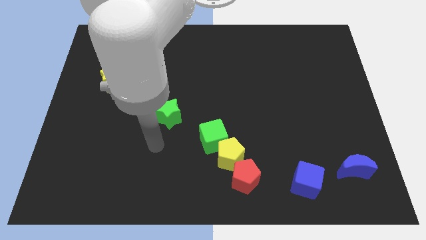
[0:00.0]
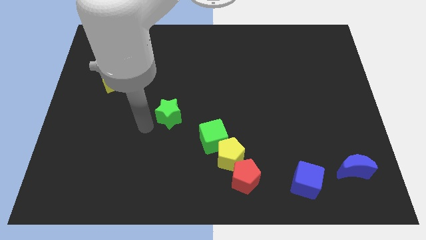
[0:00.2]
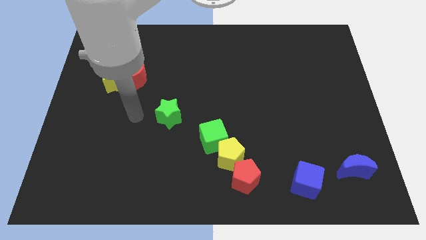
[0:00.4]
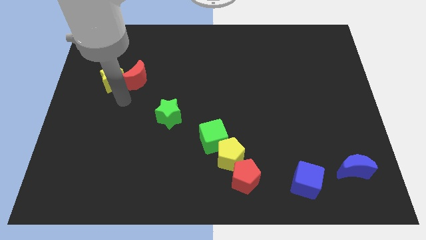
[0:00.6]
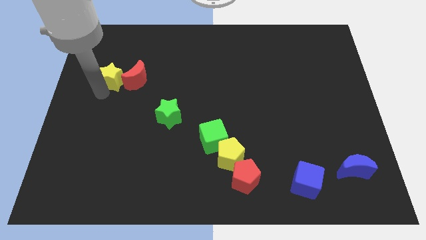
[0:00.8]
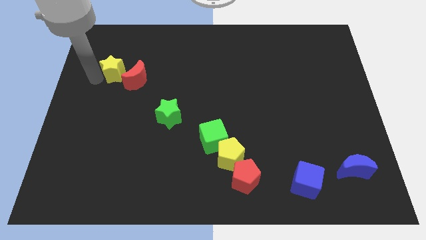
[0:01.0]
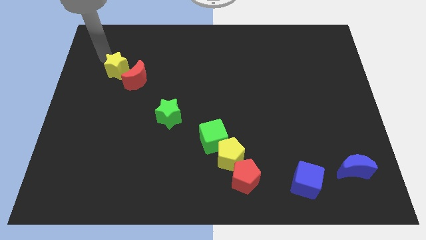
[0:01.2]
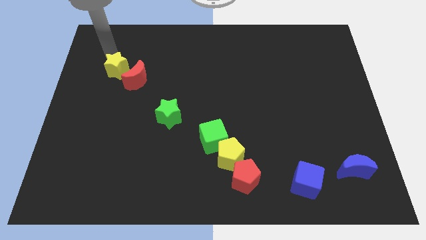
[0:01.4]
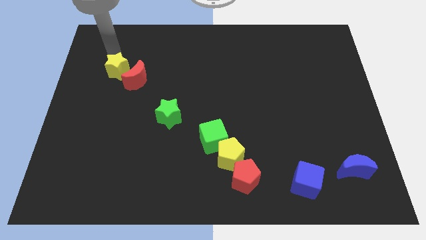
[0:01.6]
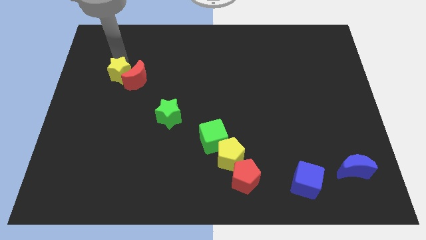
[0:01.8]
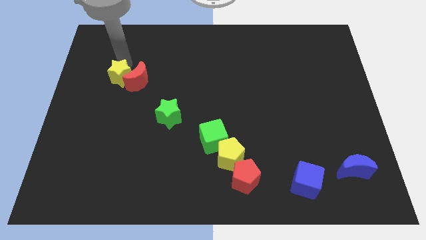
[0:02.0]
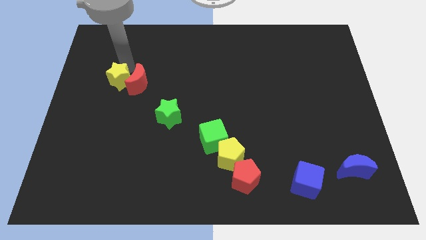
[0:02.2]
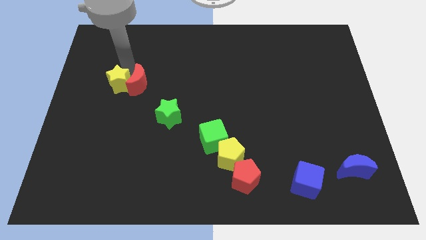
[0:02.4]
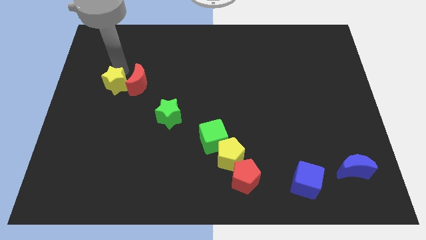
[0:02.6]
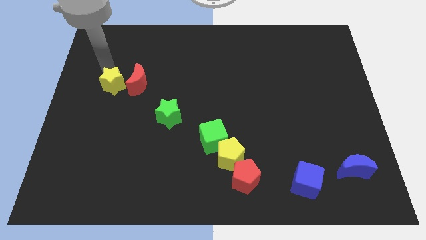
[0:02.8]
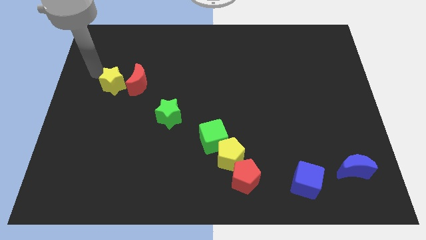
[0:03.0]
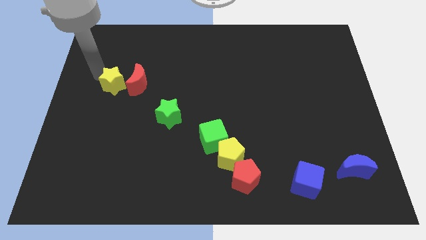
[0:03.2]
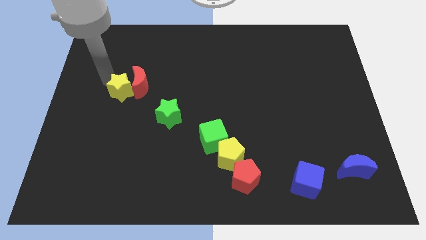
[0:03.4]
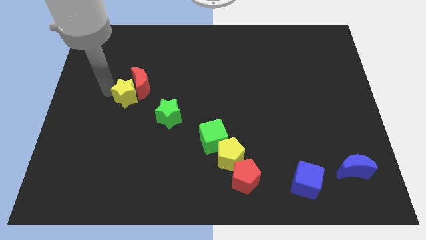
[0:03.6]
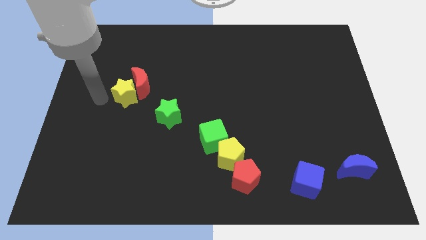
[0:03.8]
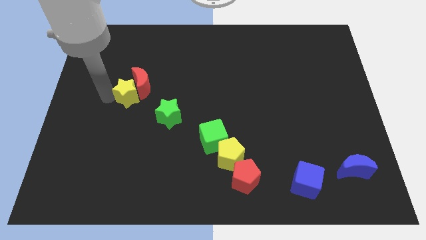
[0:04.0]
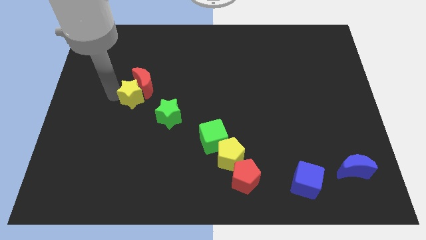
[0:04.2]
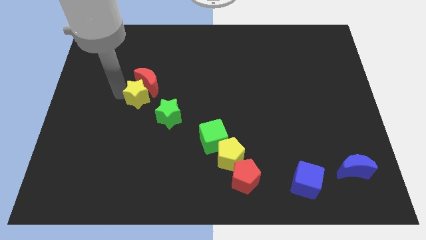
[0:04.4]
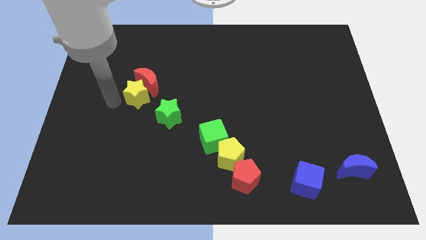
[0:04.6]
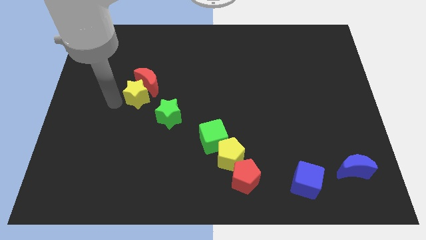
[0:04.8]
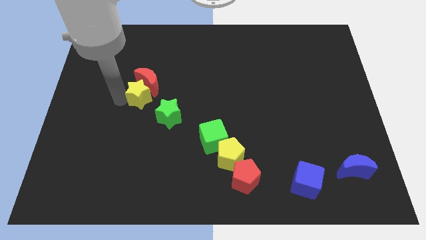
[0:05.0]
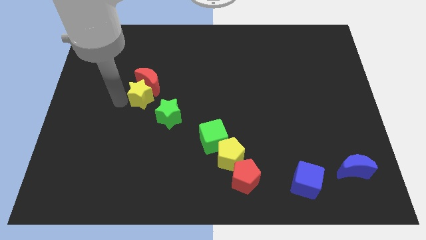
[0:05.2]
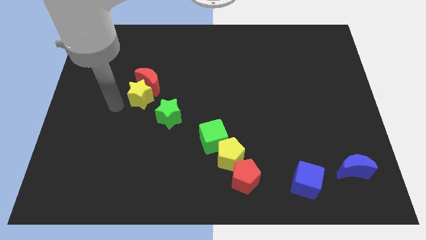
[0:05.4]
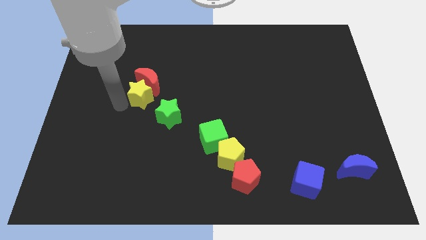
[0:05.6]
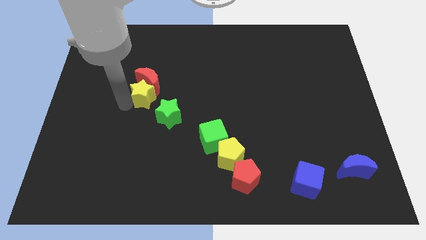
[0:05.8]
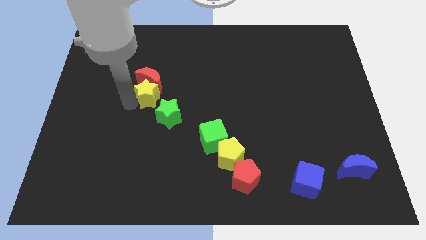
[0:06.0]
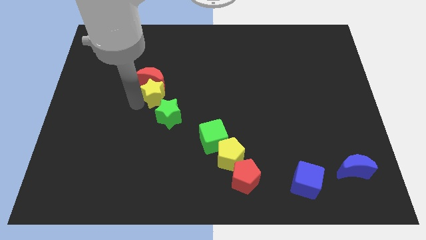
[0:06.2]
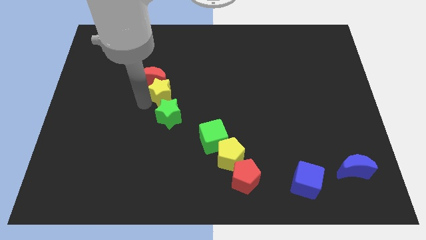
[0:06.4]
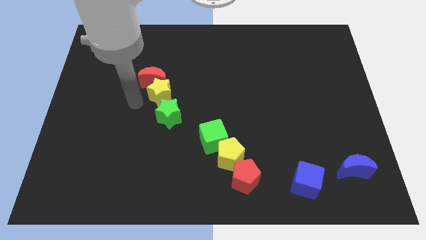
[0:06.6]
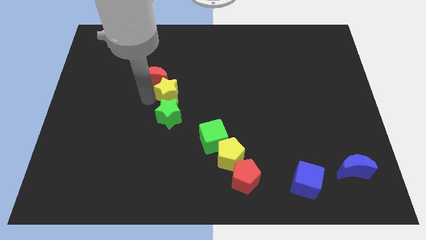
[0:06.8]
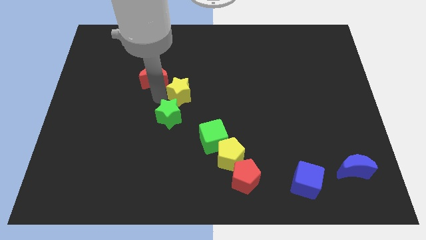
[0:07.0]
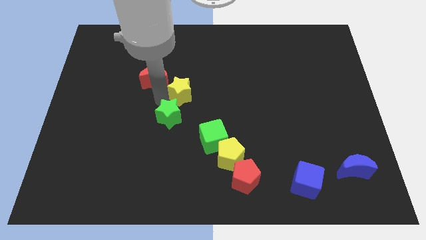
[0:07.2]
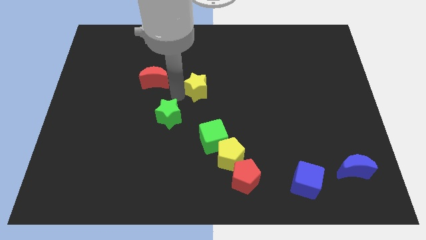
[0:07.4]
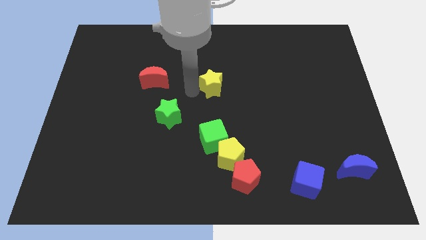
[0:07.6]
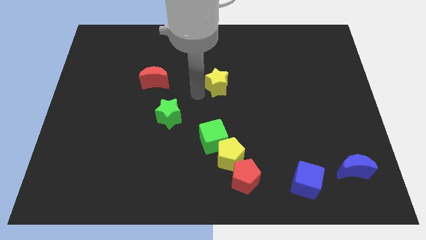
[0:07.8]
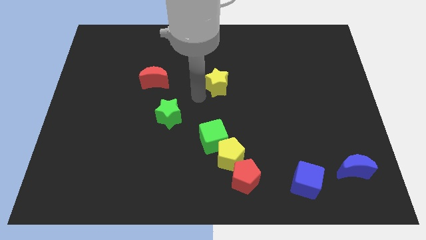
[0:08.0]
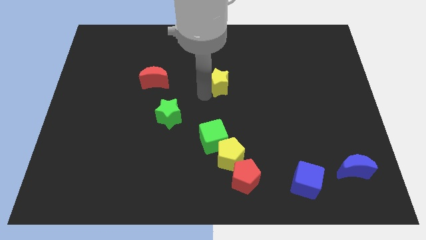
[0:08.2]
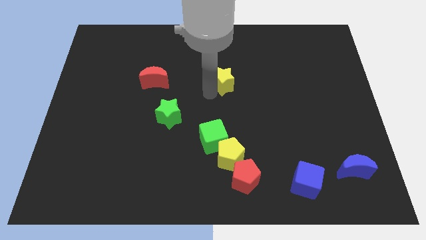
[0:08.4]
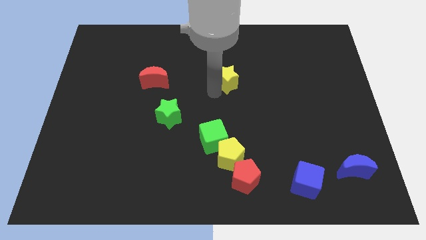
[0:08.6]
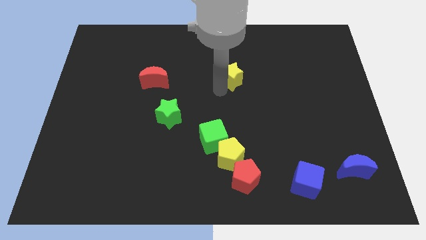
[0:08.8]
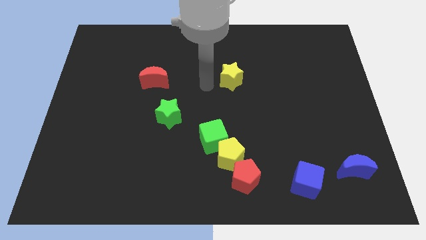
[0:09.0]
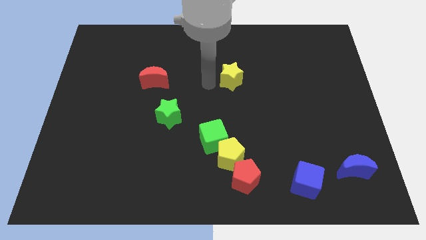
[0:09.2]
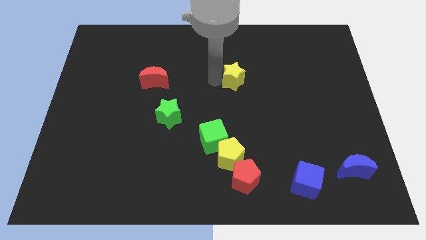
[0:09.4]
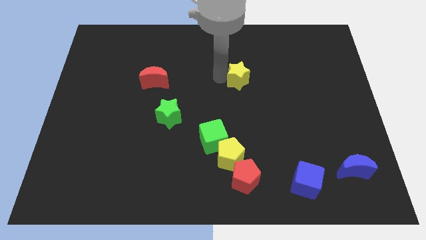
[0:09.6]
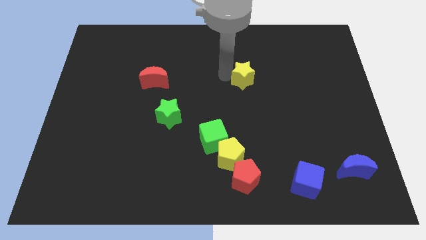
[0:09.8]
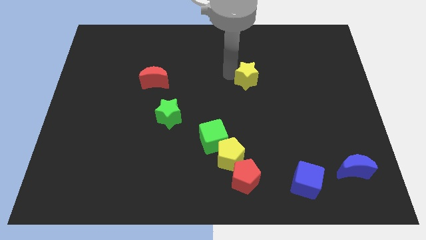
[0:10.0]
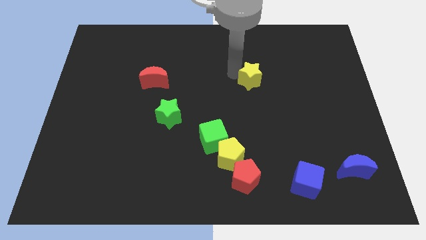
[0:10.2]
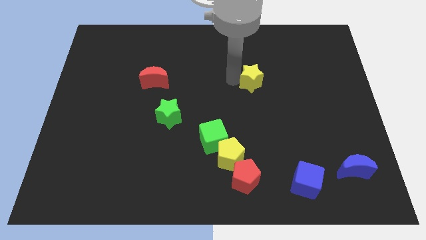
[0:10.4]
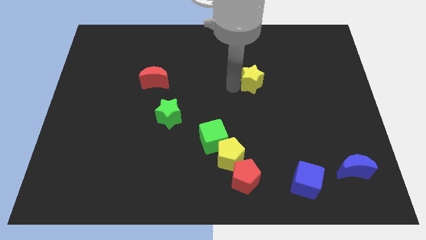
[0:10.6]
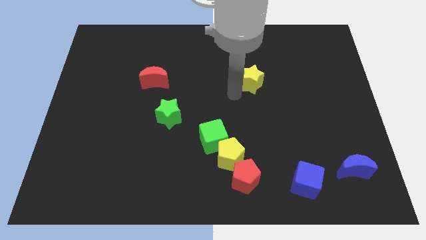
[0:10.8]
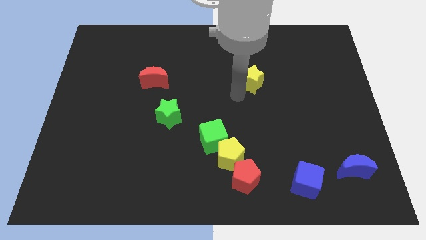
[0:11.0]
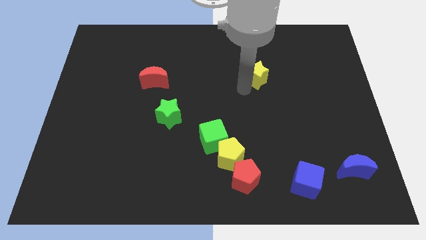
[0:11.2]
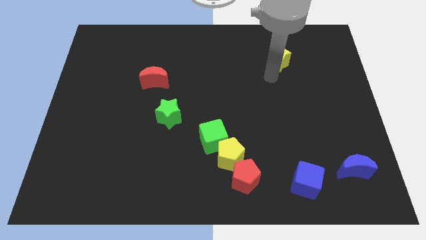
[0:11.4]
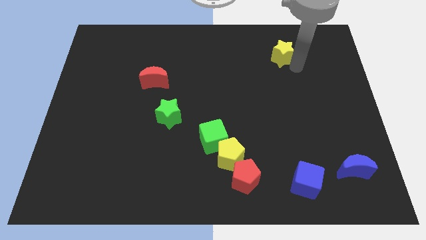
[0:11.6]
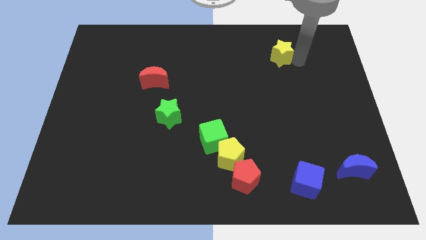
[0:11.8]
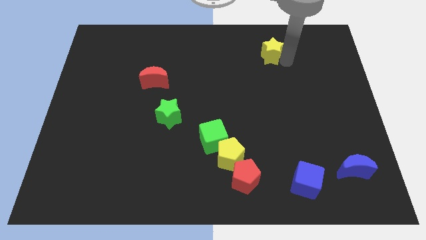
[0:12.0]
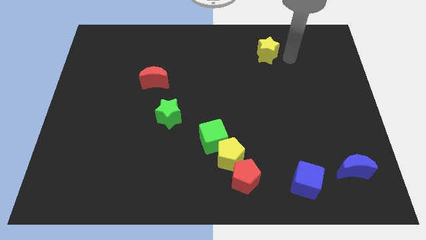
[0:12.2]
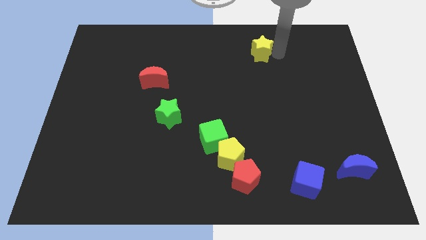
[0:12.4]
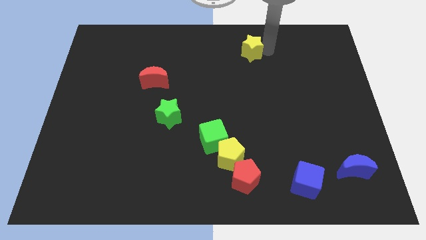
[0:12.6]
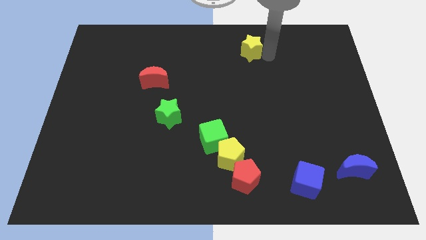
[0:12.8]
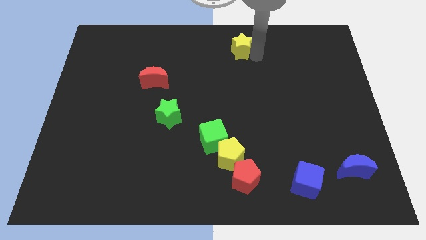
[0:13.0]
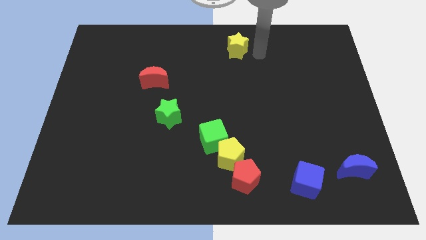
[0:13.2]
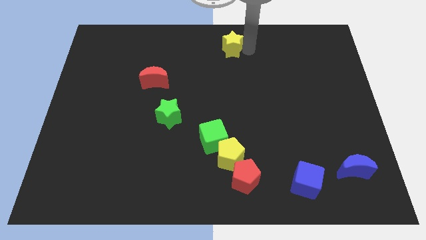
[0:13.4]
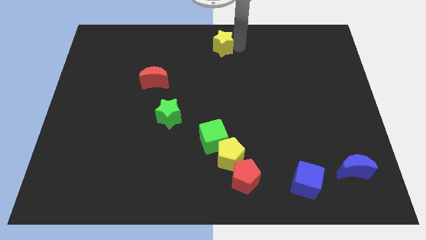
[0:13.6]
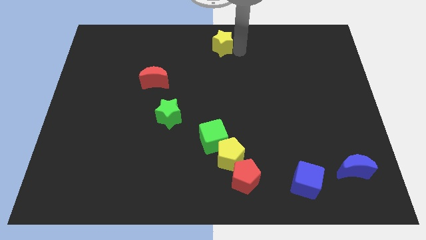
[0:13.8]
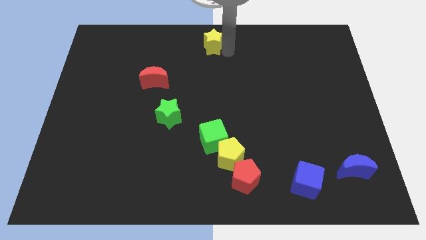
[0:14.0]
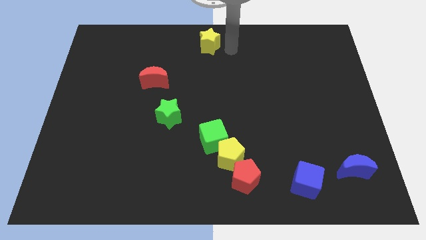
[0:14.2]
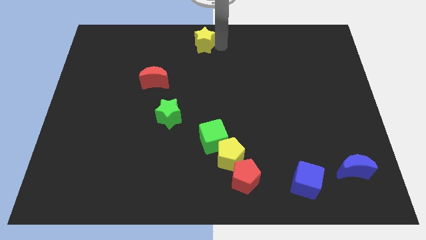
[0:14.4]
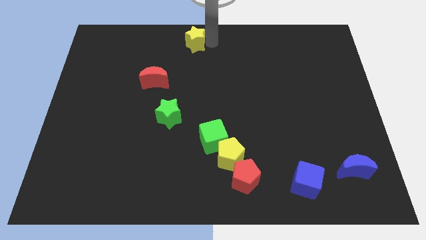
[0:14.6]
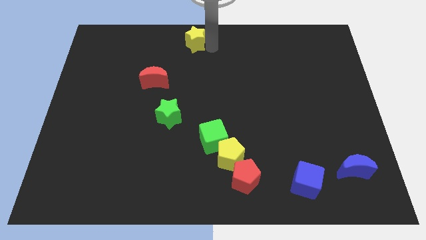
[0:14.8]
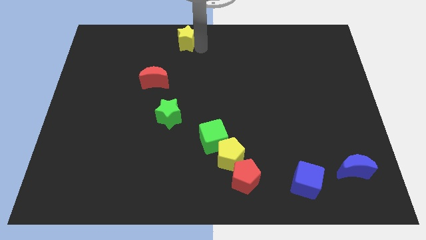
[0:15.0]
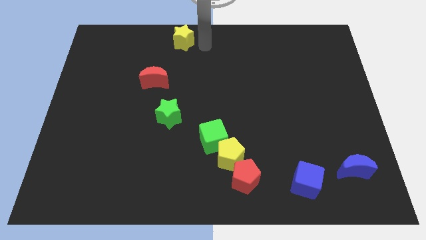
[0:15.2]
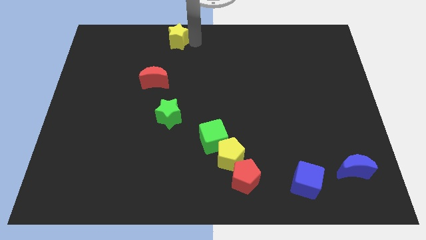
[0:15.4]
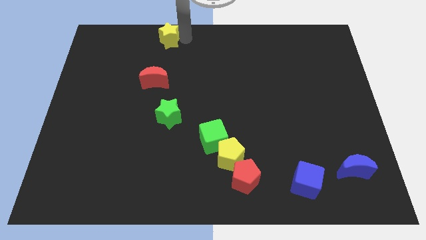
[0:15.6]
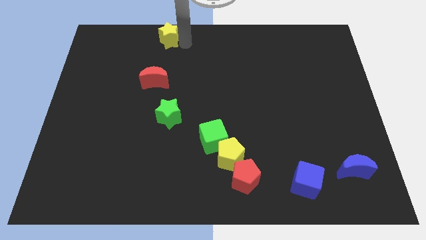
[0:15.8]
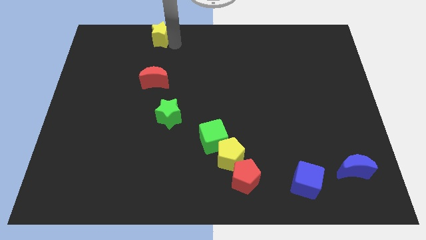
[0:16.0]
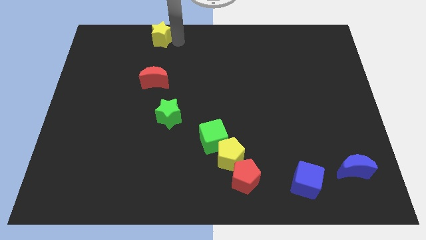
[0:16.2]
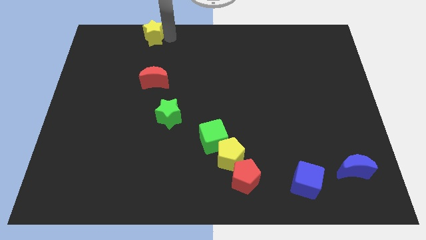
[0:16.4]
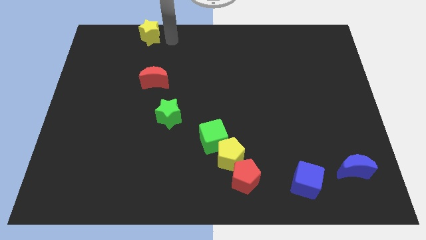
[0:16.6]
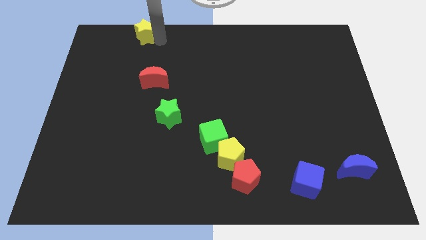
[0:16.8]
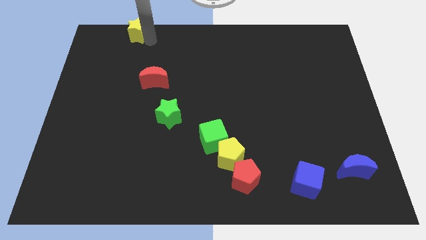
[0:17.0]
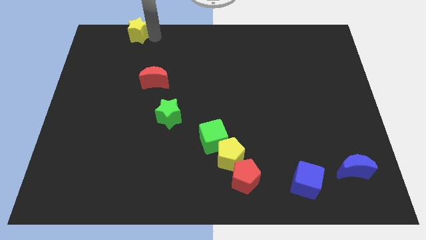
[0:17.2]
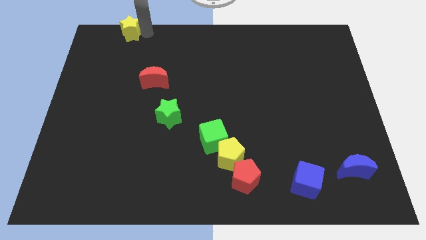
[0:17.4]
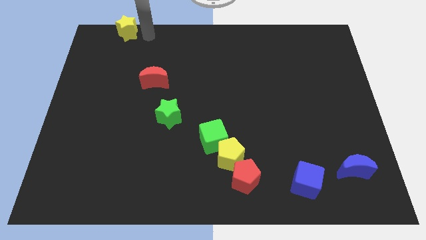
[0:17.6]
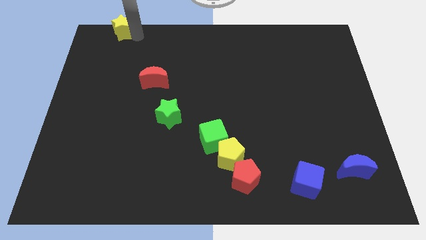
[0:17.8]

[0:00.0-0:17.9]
slide the yellow star to the top left of the board
